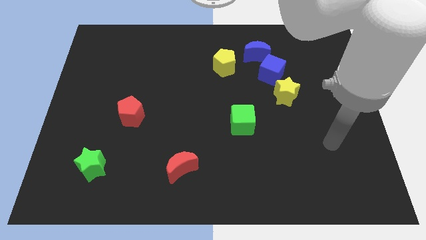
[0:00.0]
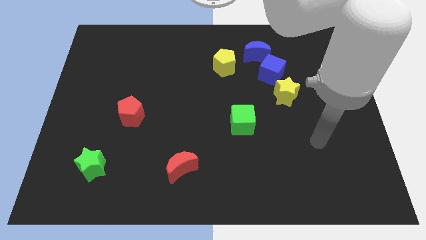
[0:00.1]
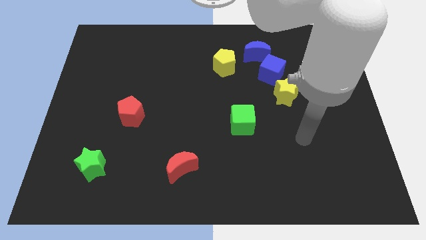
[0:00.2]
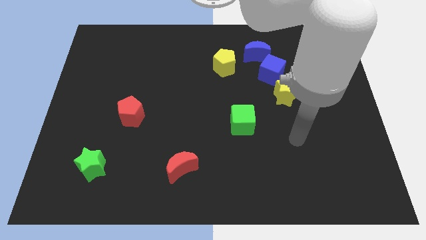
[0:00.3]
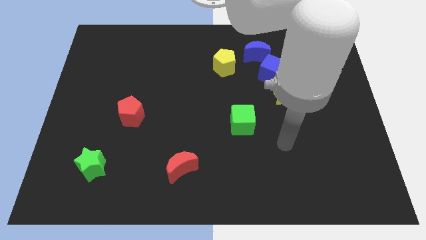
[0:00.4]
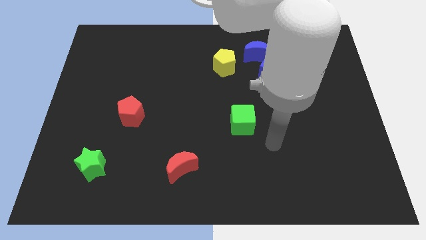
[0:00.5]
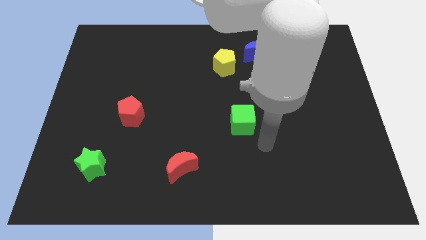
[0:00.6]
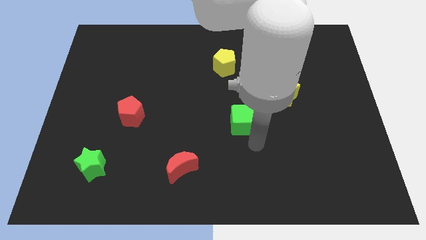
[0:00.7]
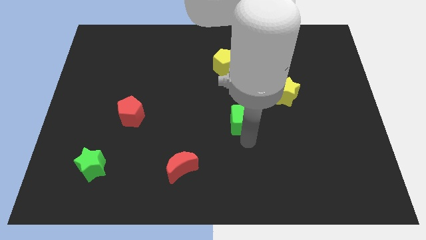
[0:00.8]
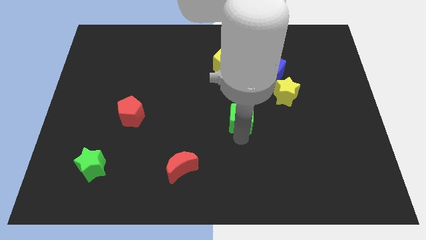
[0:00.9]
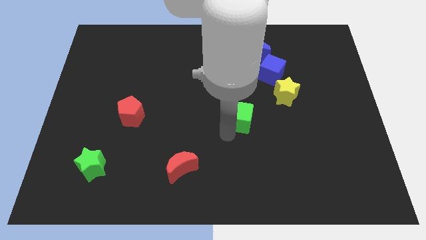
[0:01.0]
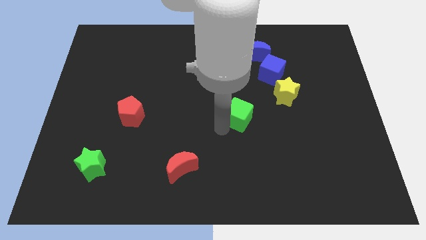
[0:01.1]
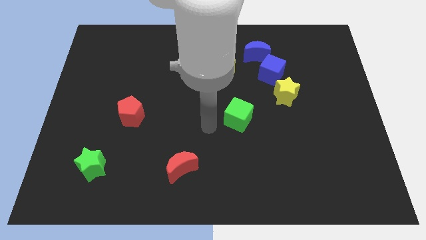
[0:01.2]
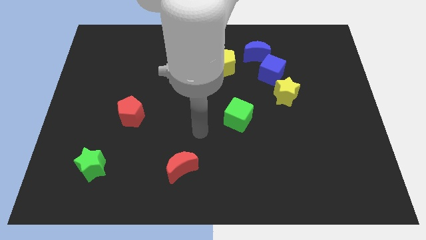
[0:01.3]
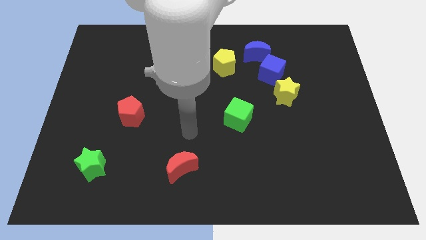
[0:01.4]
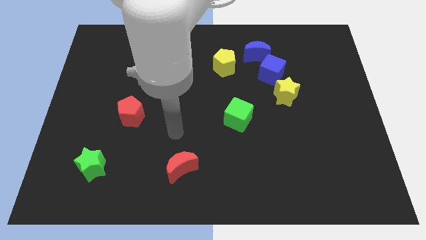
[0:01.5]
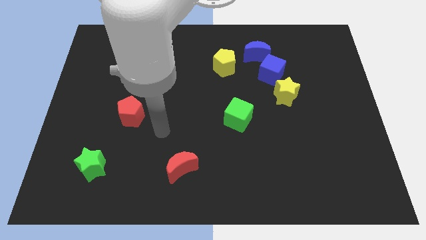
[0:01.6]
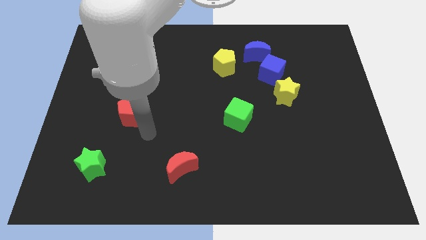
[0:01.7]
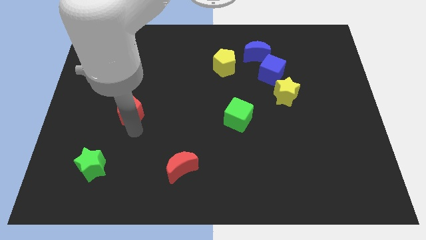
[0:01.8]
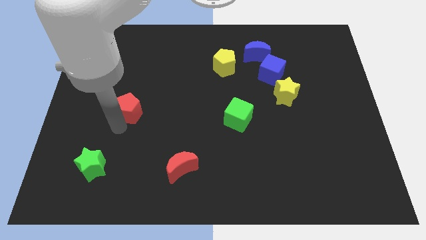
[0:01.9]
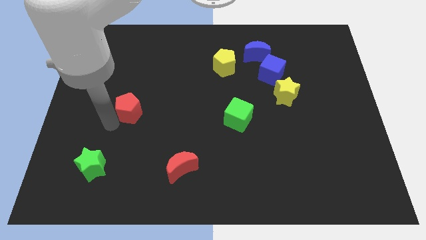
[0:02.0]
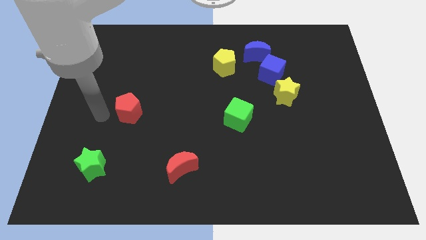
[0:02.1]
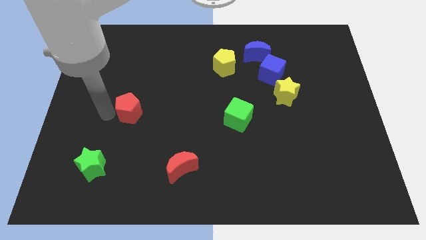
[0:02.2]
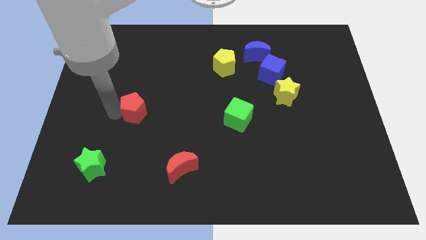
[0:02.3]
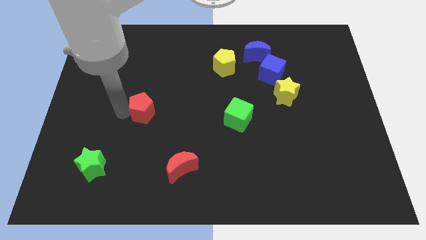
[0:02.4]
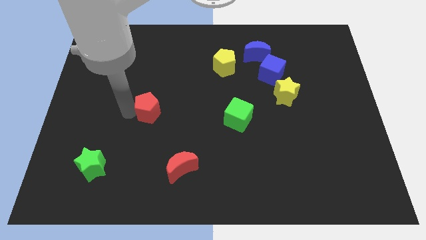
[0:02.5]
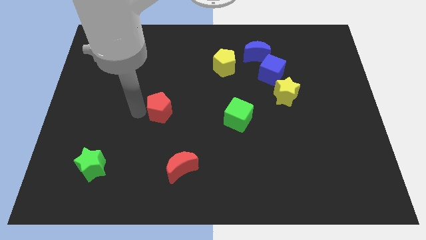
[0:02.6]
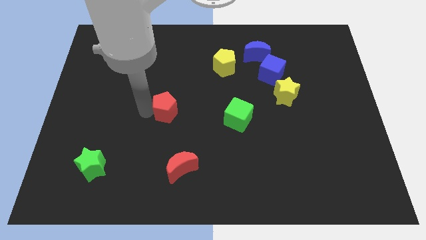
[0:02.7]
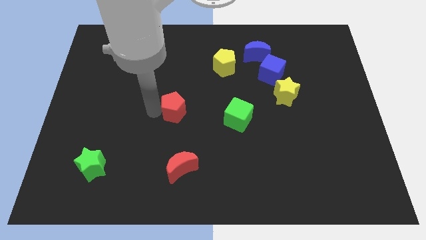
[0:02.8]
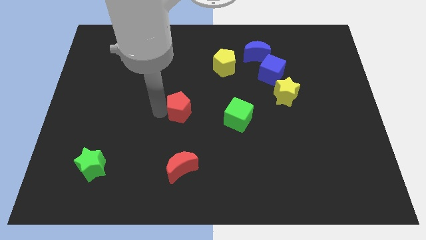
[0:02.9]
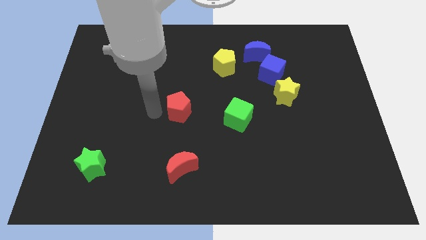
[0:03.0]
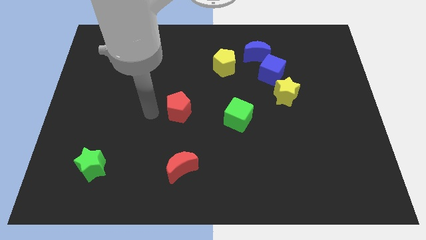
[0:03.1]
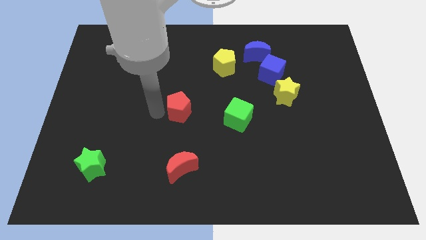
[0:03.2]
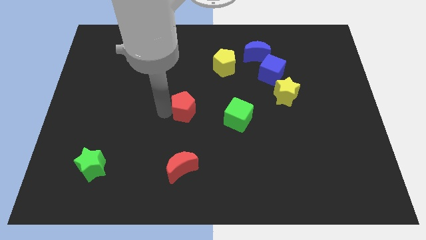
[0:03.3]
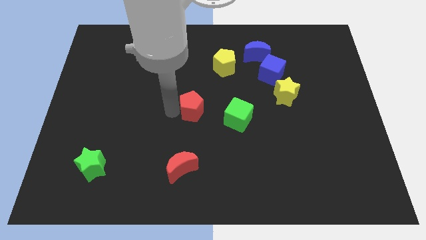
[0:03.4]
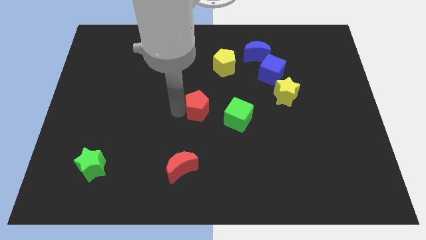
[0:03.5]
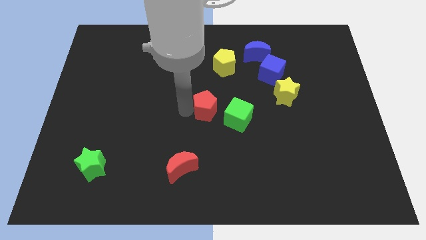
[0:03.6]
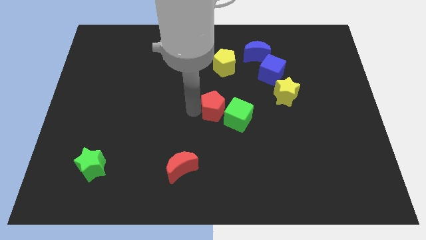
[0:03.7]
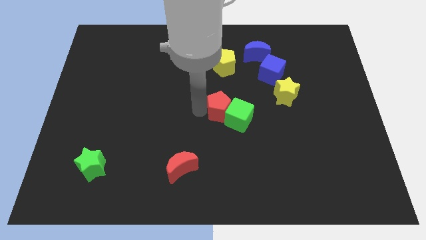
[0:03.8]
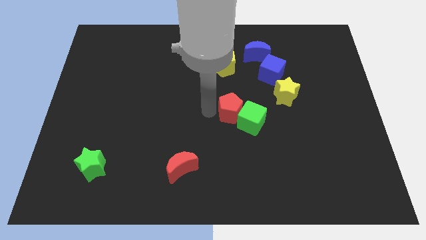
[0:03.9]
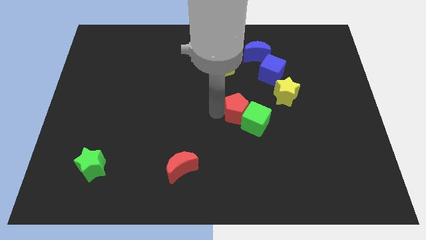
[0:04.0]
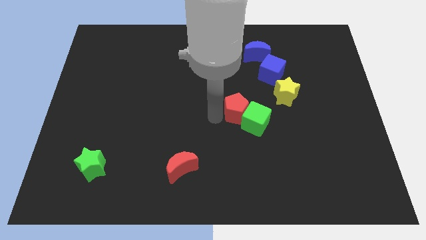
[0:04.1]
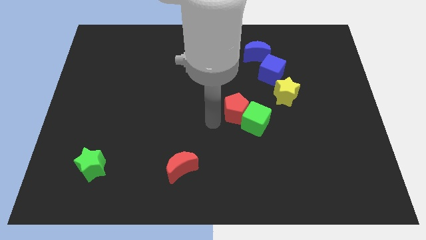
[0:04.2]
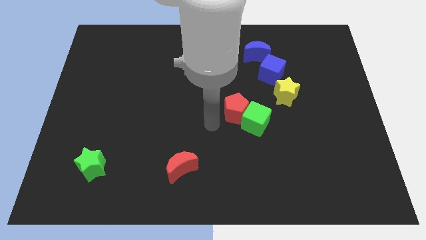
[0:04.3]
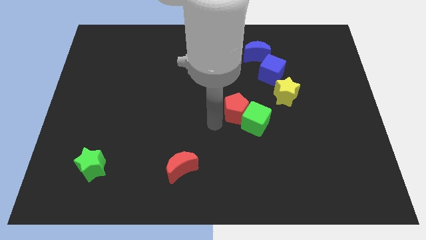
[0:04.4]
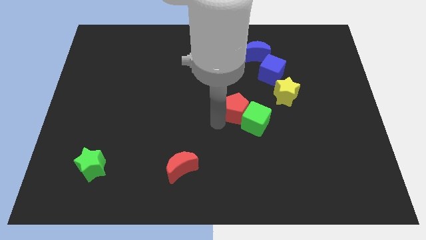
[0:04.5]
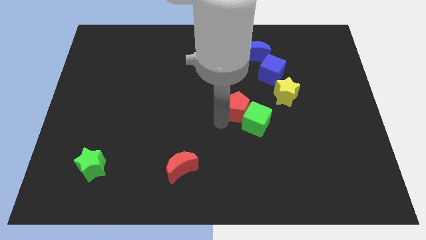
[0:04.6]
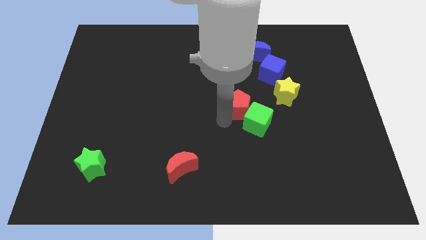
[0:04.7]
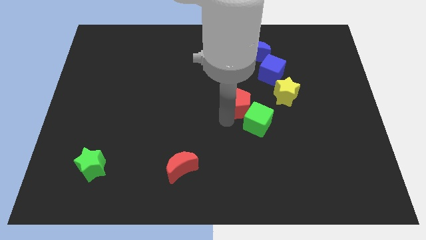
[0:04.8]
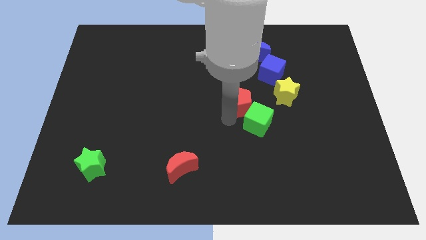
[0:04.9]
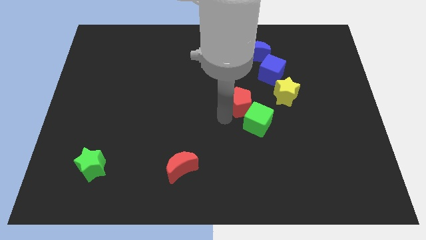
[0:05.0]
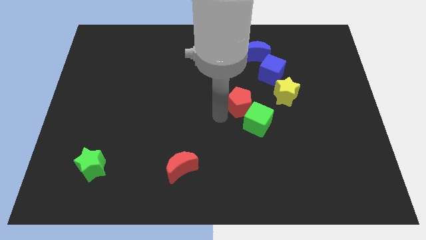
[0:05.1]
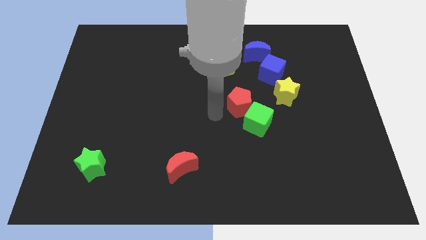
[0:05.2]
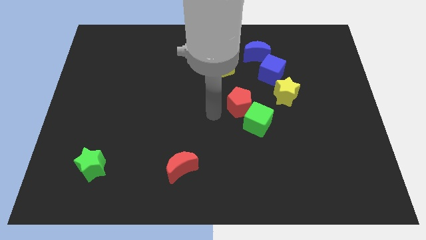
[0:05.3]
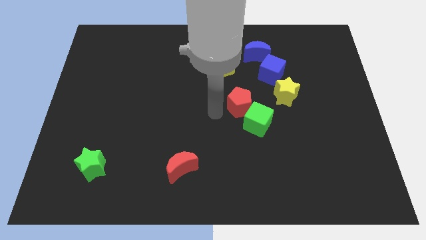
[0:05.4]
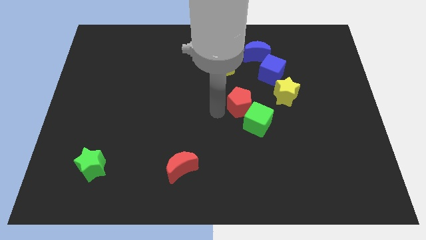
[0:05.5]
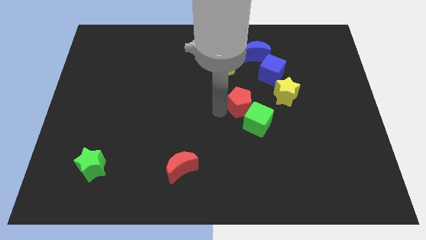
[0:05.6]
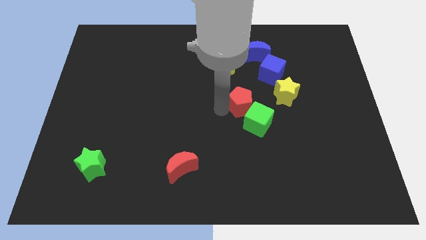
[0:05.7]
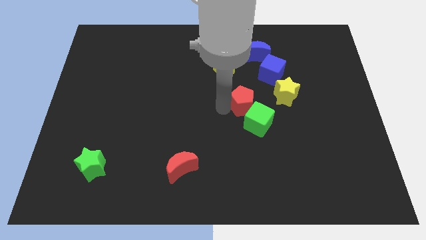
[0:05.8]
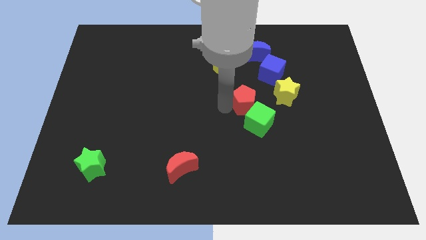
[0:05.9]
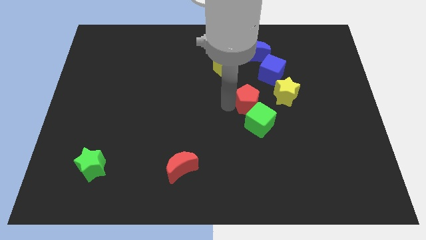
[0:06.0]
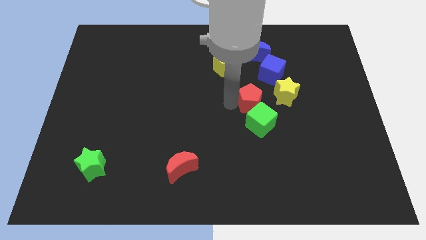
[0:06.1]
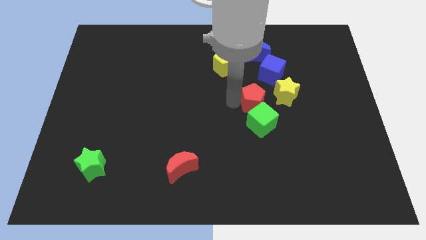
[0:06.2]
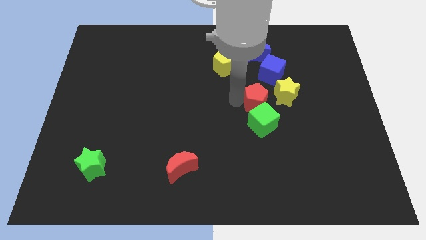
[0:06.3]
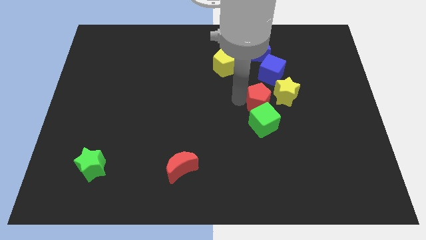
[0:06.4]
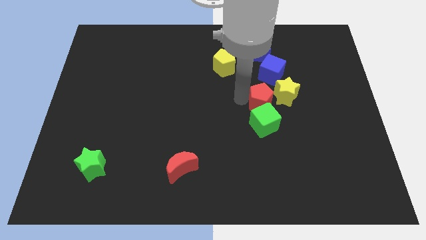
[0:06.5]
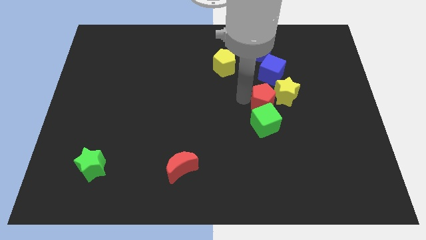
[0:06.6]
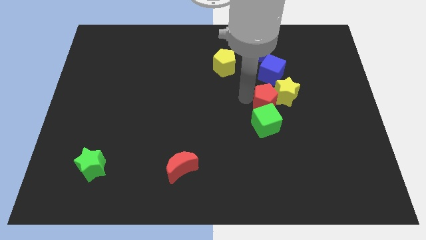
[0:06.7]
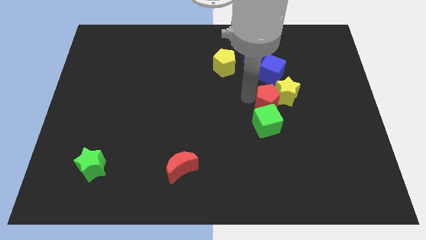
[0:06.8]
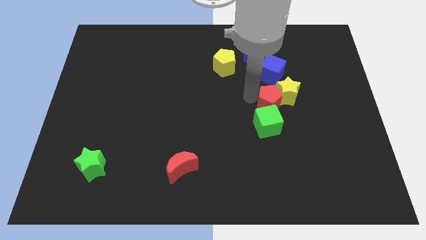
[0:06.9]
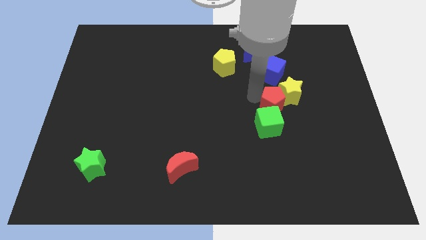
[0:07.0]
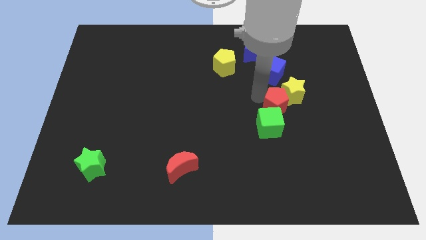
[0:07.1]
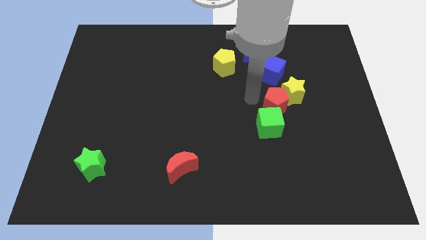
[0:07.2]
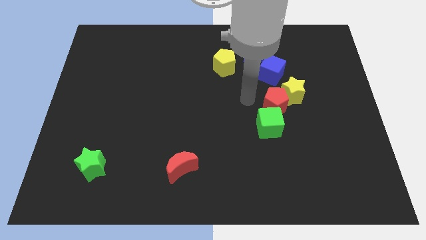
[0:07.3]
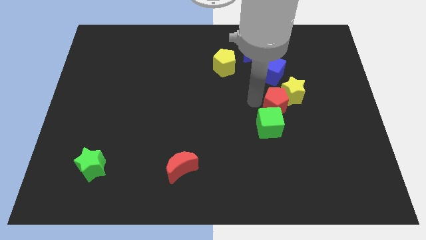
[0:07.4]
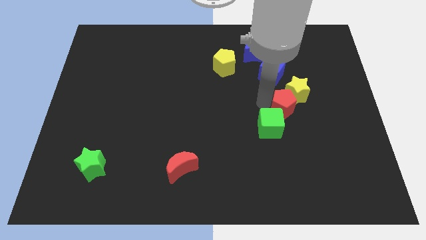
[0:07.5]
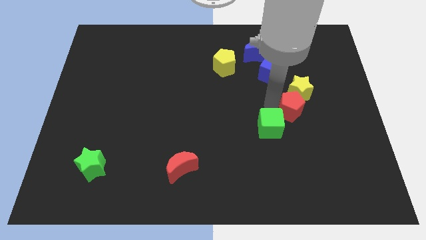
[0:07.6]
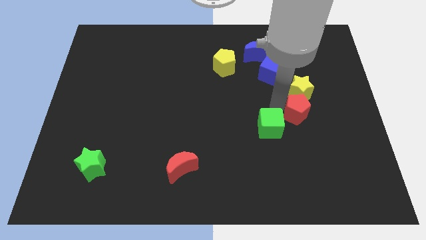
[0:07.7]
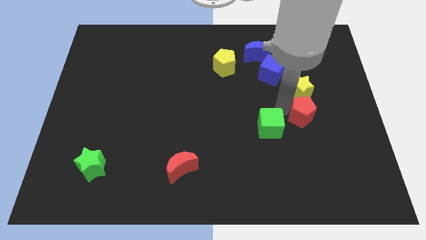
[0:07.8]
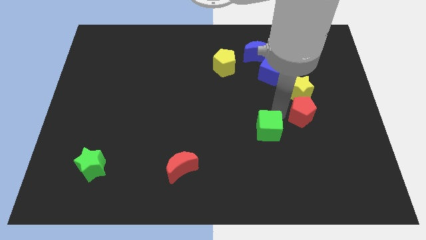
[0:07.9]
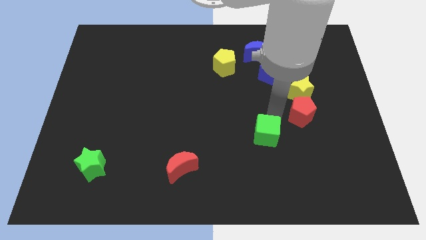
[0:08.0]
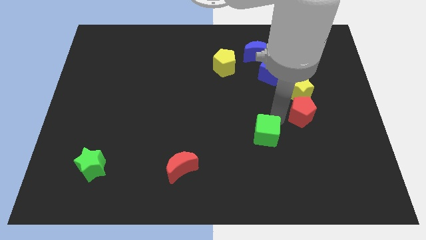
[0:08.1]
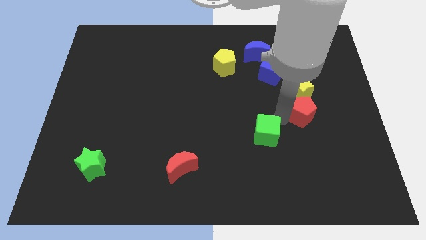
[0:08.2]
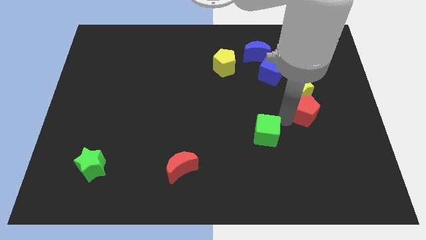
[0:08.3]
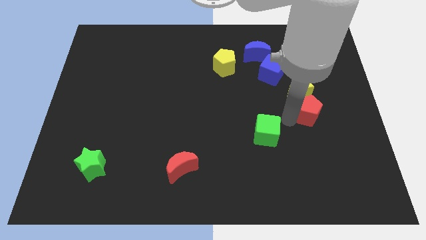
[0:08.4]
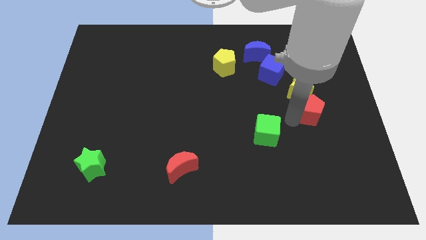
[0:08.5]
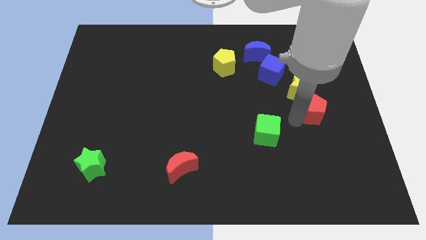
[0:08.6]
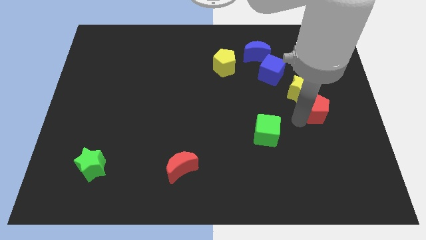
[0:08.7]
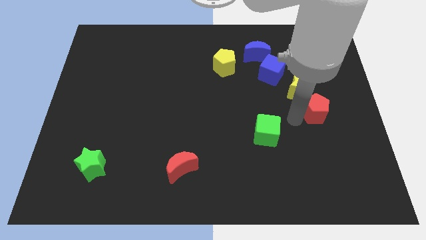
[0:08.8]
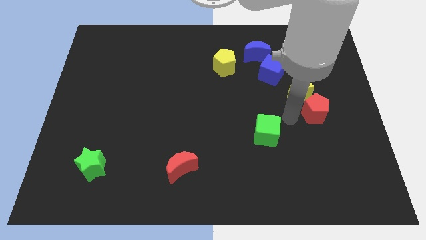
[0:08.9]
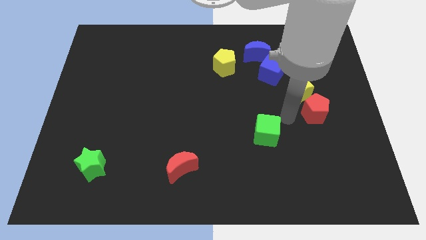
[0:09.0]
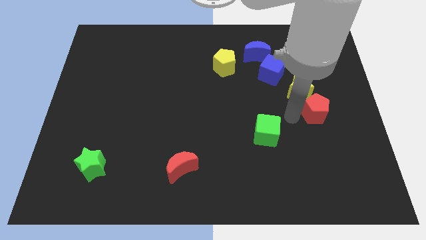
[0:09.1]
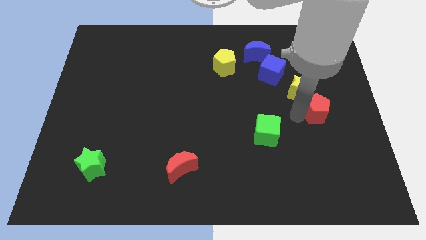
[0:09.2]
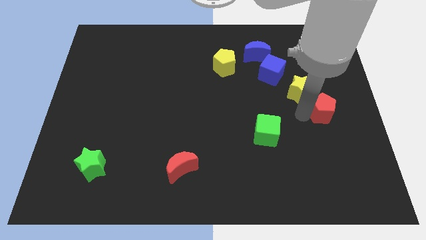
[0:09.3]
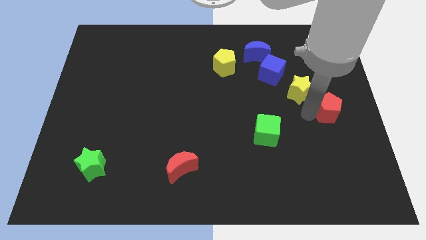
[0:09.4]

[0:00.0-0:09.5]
push the red pentagon to the center right
